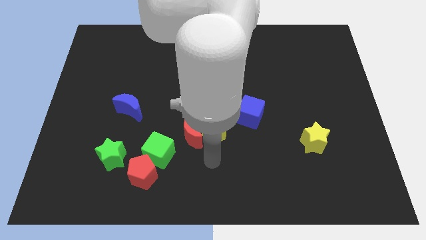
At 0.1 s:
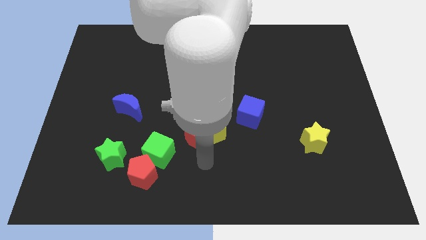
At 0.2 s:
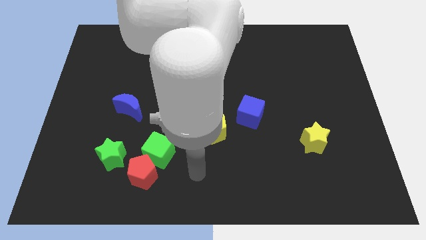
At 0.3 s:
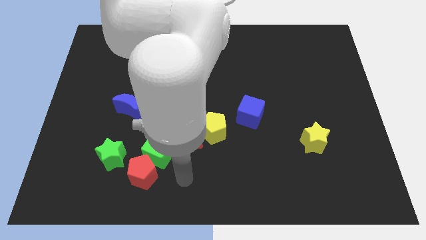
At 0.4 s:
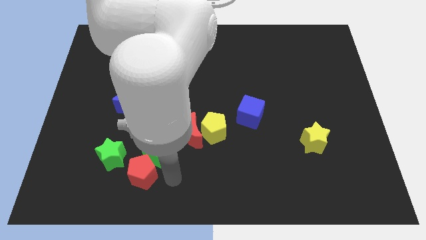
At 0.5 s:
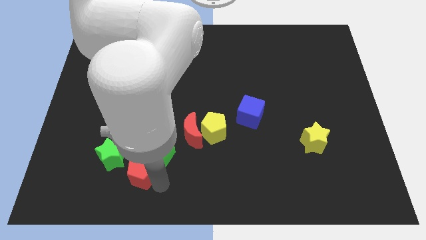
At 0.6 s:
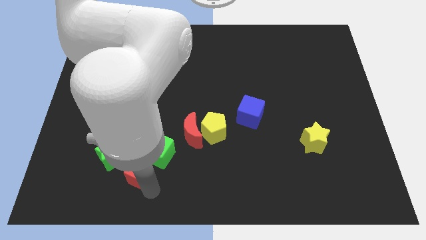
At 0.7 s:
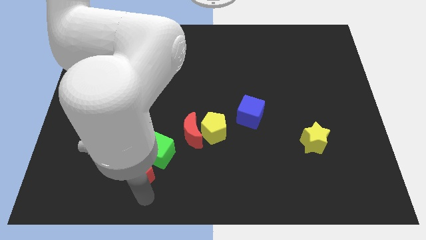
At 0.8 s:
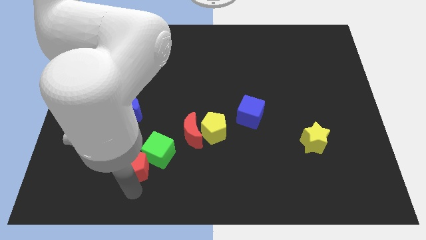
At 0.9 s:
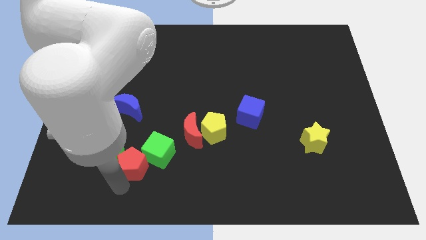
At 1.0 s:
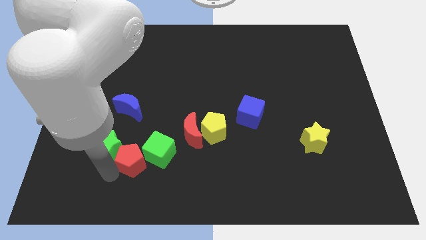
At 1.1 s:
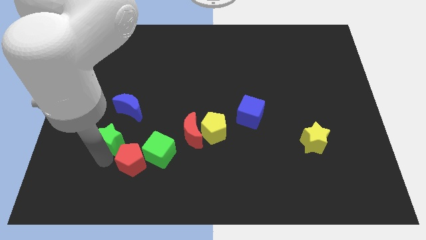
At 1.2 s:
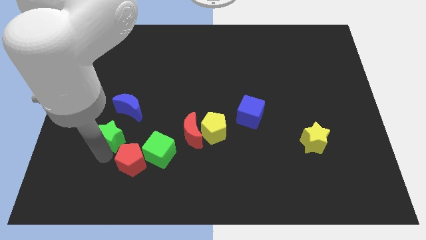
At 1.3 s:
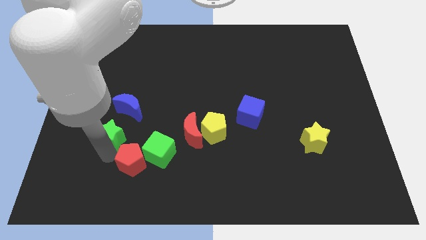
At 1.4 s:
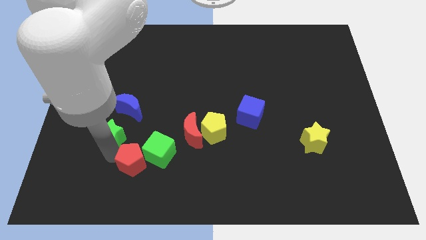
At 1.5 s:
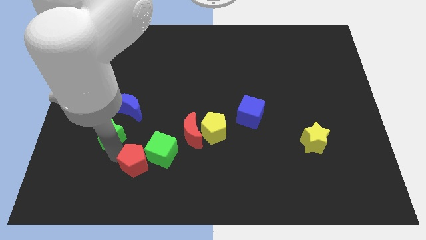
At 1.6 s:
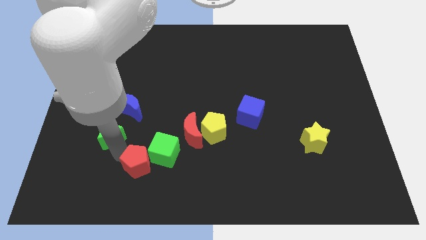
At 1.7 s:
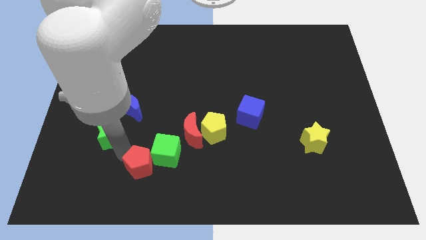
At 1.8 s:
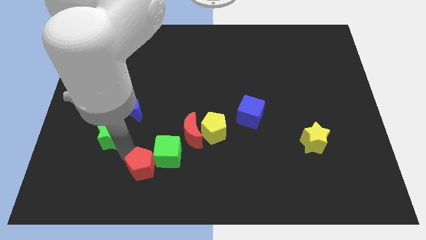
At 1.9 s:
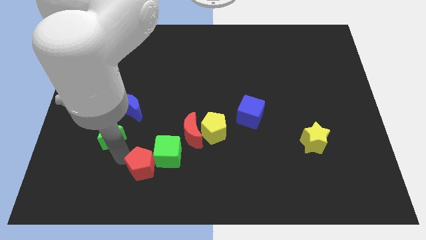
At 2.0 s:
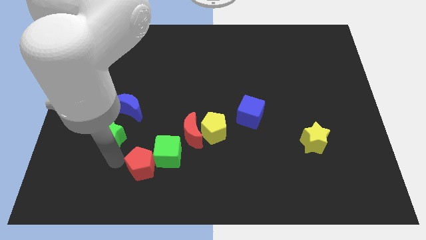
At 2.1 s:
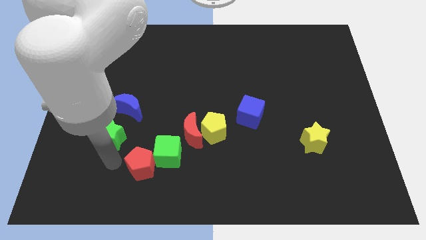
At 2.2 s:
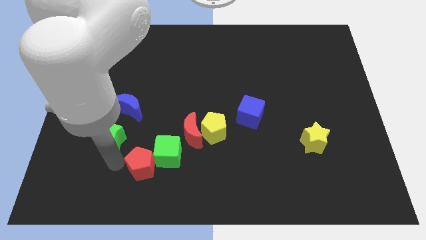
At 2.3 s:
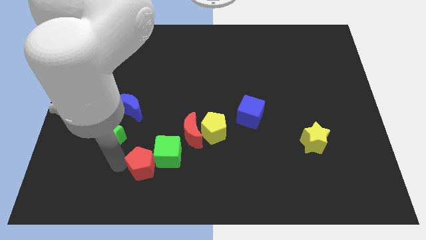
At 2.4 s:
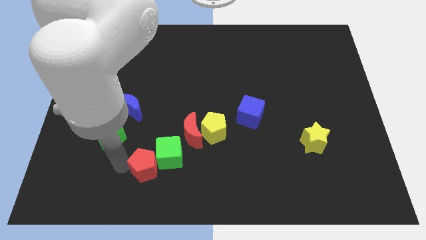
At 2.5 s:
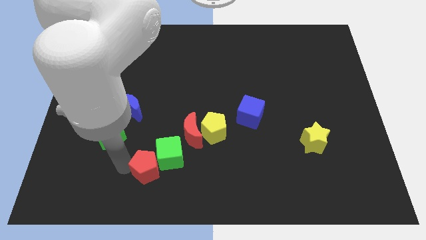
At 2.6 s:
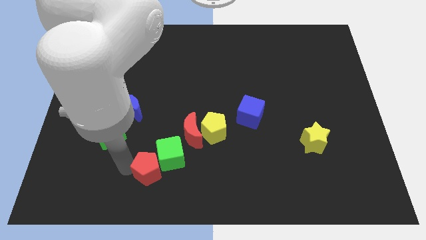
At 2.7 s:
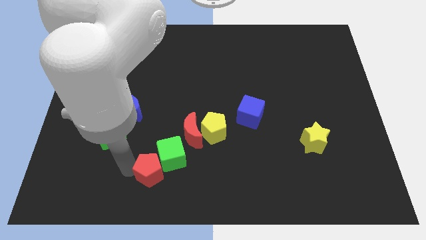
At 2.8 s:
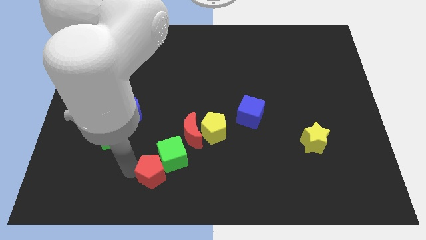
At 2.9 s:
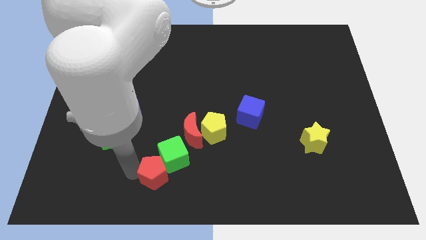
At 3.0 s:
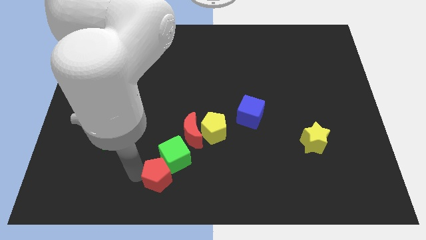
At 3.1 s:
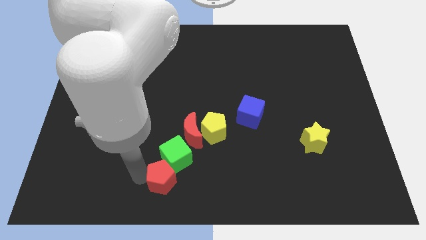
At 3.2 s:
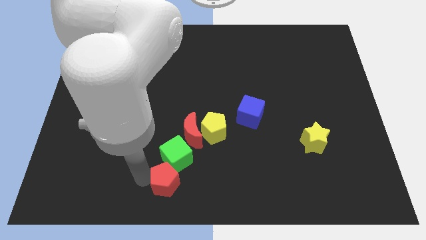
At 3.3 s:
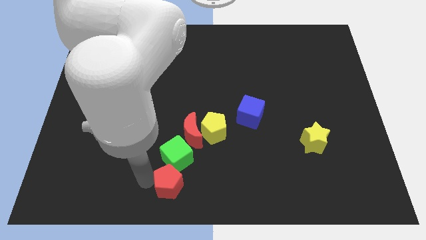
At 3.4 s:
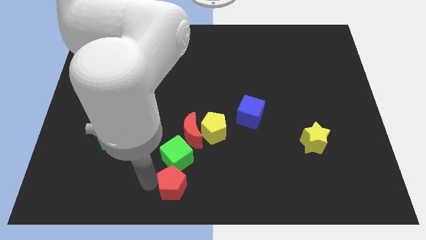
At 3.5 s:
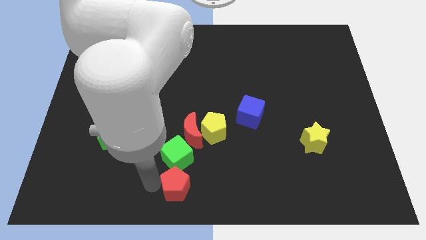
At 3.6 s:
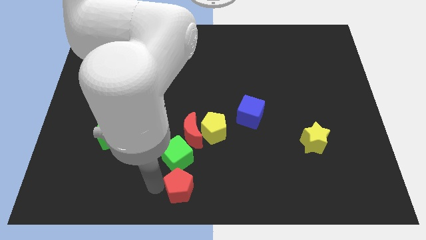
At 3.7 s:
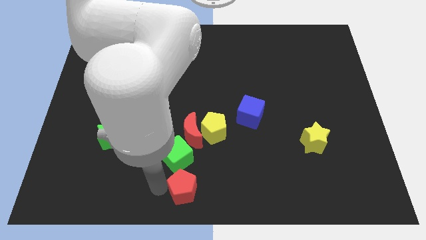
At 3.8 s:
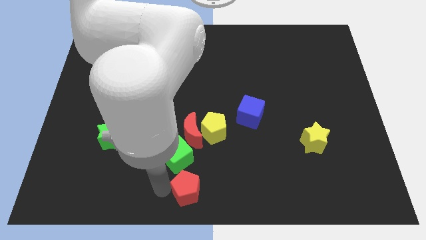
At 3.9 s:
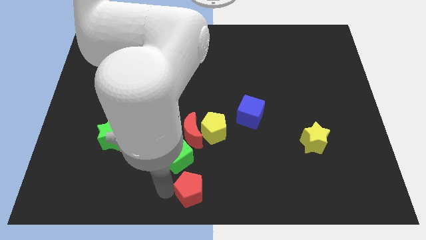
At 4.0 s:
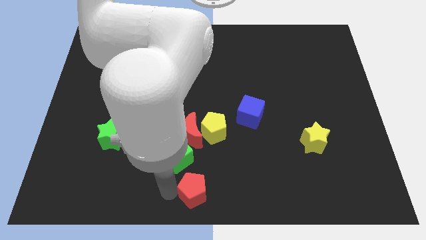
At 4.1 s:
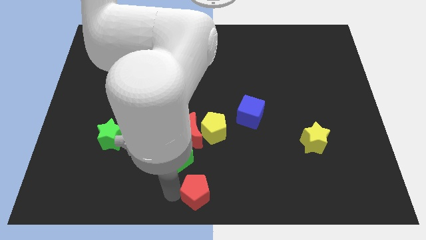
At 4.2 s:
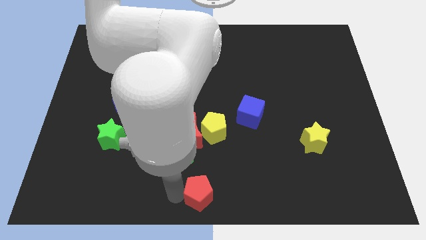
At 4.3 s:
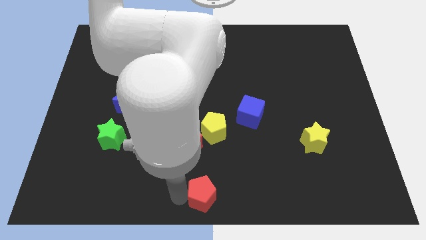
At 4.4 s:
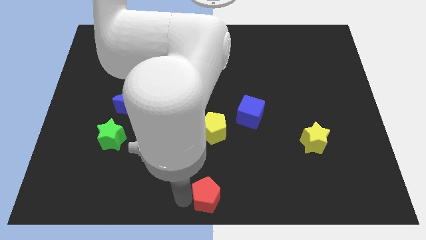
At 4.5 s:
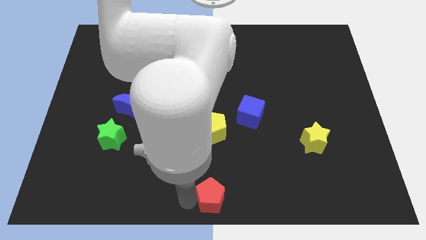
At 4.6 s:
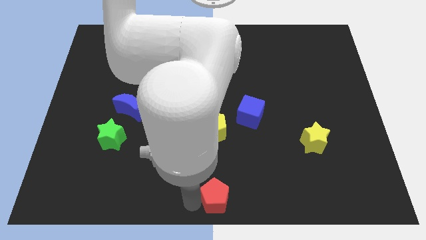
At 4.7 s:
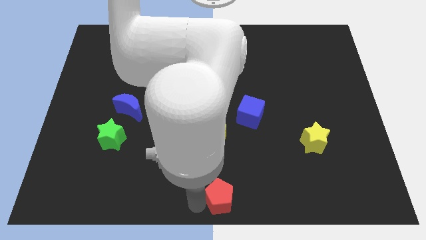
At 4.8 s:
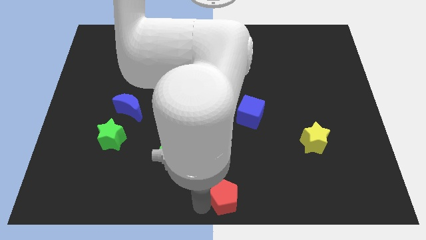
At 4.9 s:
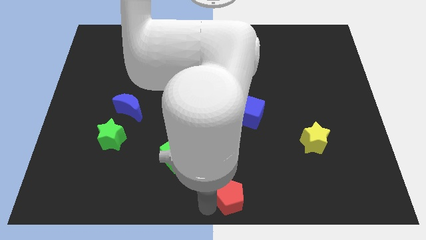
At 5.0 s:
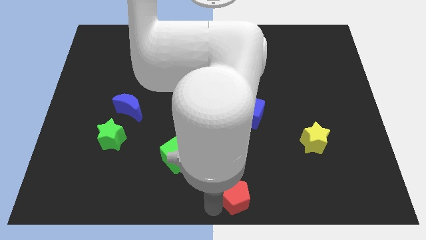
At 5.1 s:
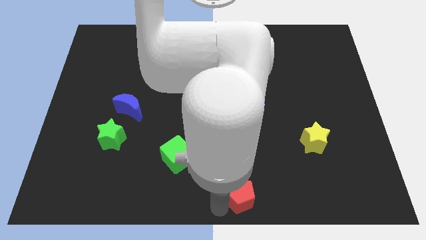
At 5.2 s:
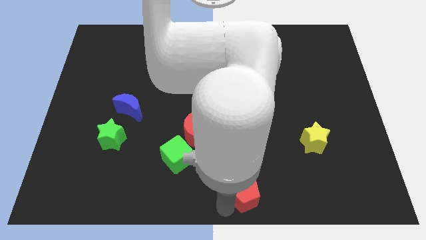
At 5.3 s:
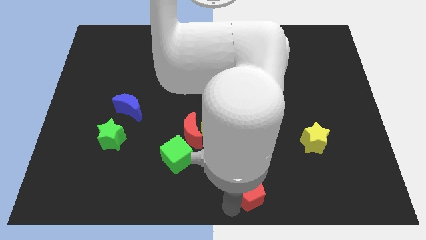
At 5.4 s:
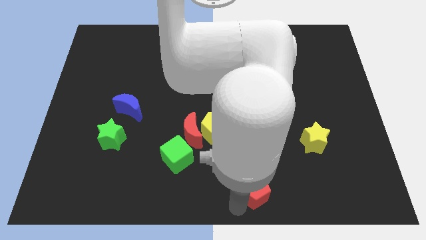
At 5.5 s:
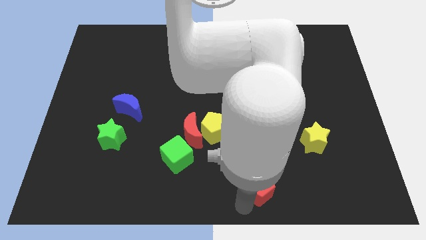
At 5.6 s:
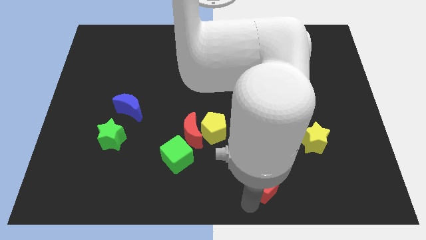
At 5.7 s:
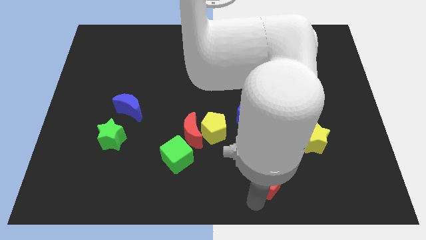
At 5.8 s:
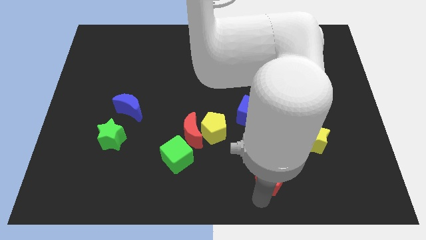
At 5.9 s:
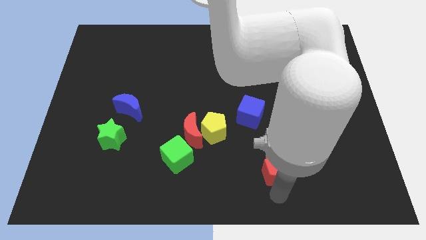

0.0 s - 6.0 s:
slide the red pentagon to the bottom left side of the yellow star
